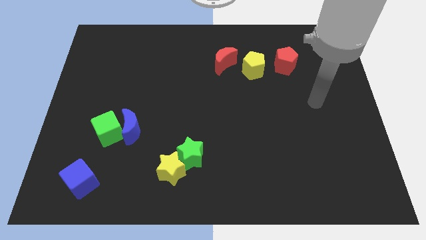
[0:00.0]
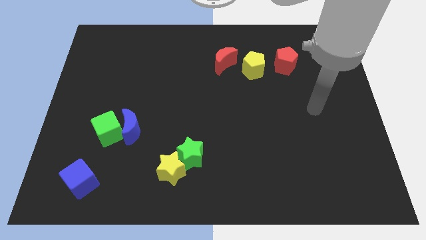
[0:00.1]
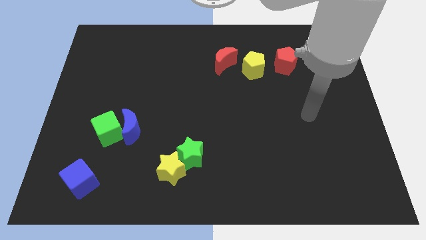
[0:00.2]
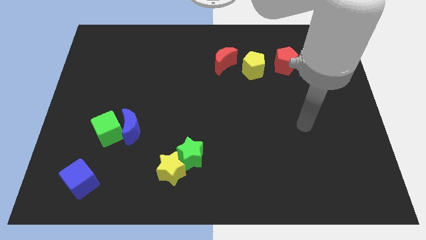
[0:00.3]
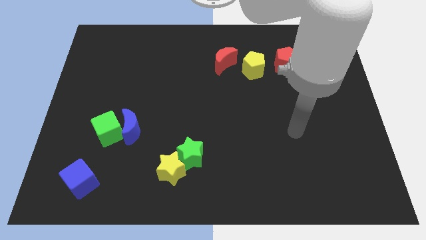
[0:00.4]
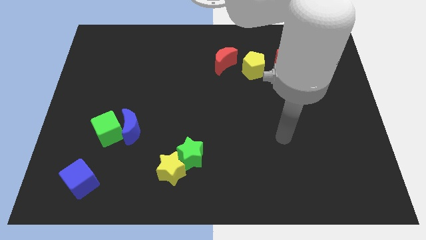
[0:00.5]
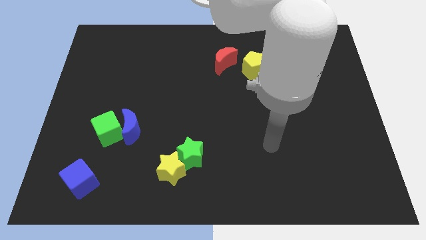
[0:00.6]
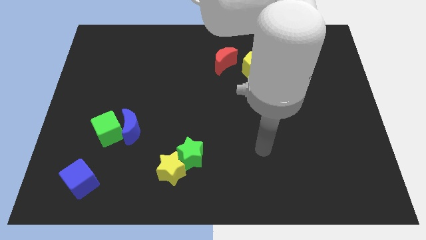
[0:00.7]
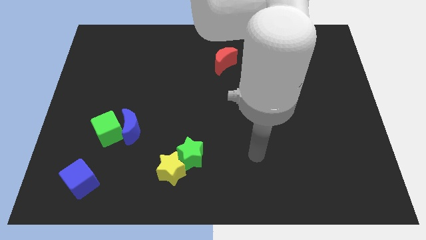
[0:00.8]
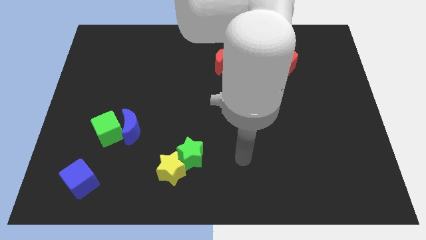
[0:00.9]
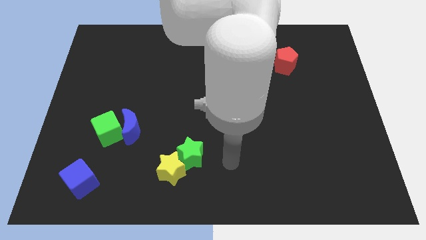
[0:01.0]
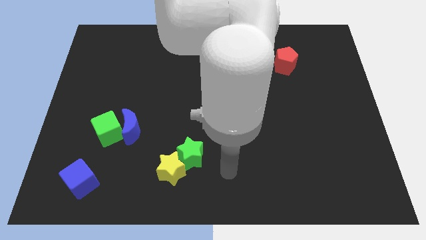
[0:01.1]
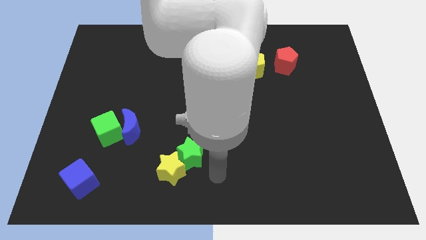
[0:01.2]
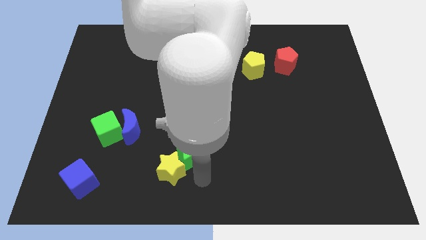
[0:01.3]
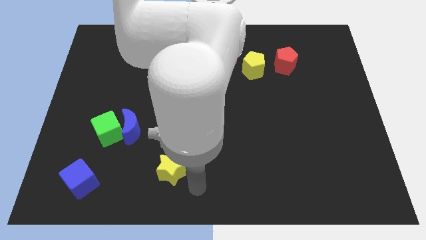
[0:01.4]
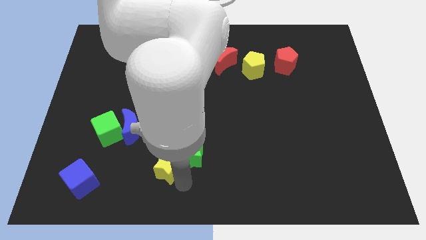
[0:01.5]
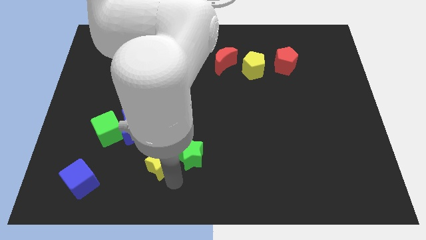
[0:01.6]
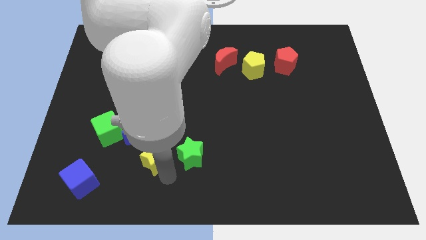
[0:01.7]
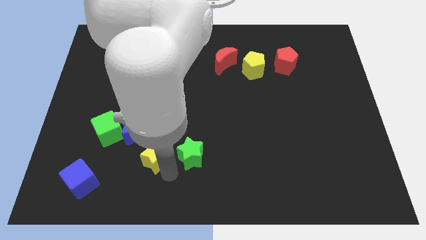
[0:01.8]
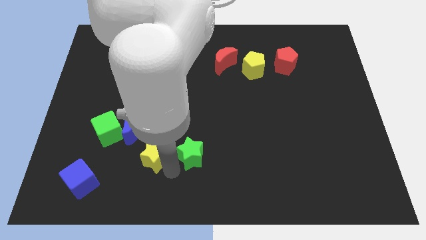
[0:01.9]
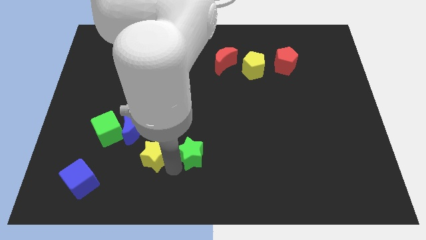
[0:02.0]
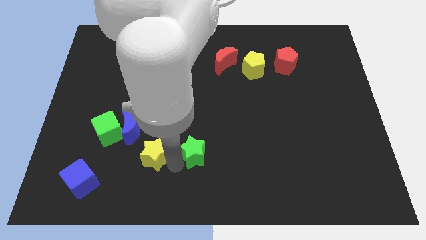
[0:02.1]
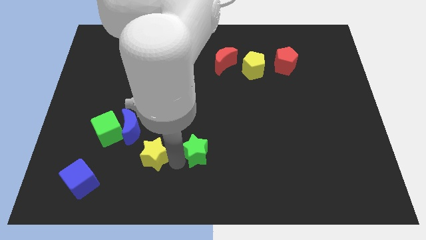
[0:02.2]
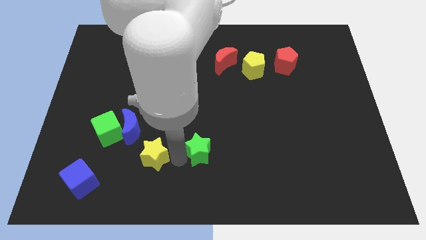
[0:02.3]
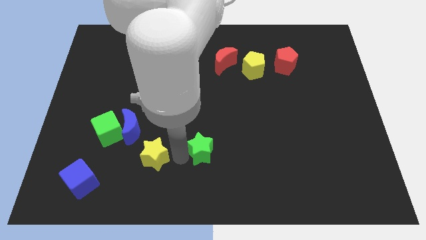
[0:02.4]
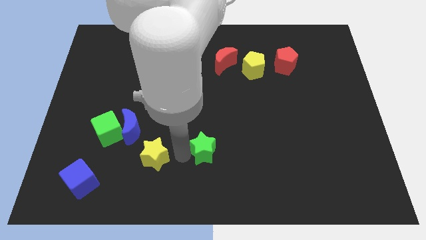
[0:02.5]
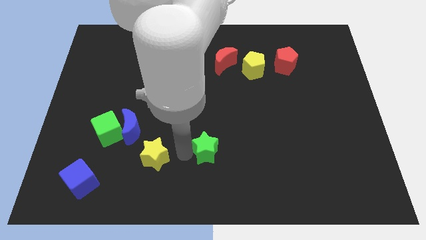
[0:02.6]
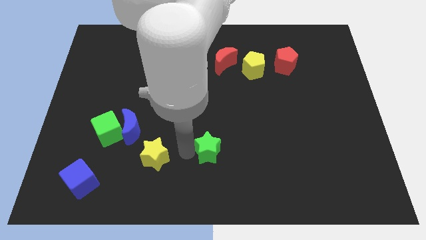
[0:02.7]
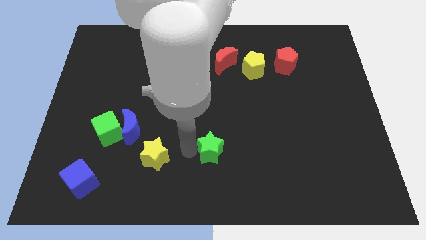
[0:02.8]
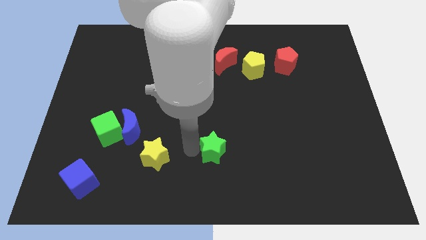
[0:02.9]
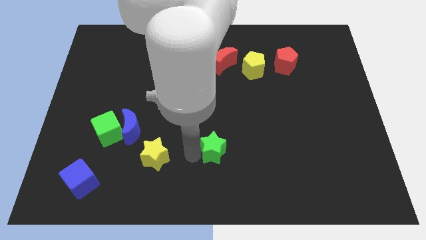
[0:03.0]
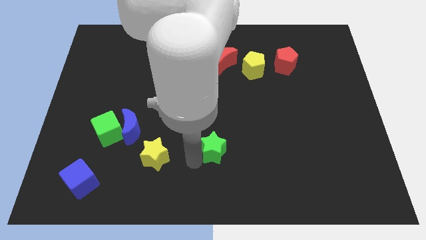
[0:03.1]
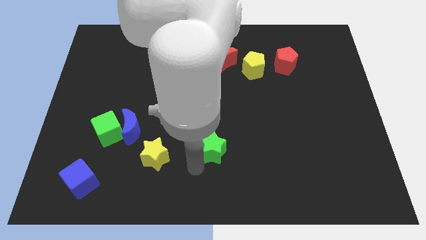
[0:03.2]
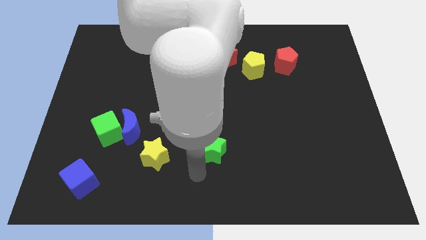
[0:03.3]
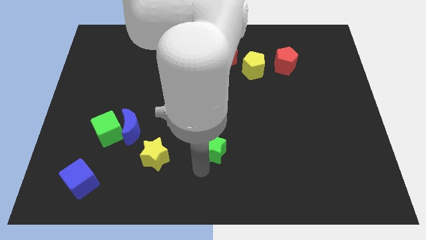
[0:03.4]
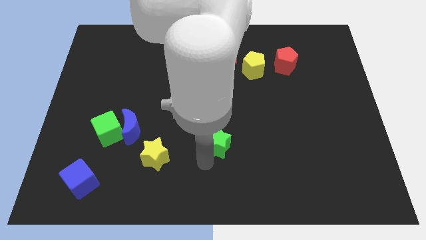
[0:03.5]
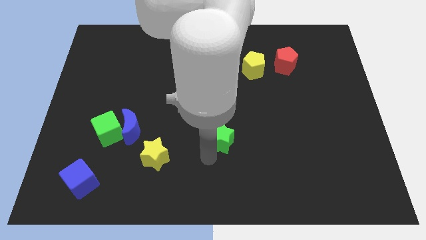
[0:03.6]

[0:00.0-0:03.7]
slightly push the green star diagonally upwards and to the right

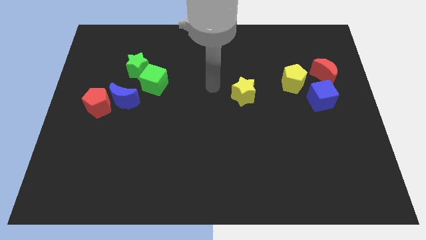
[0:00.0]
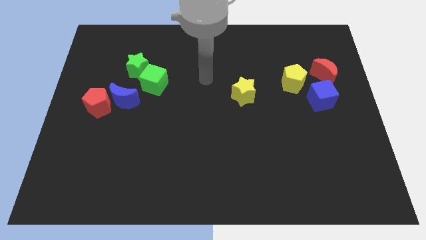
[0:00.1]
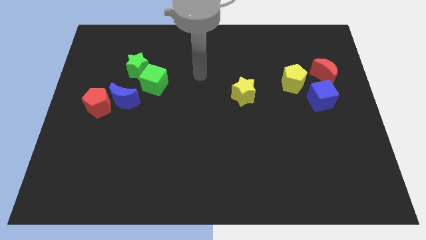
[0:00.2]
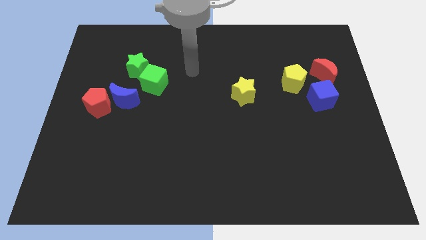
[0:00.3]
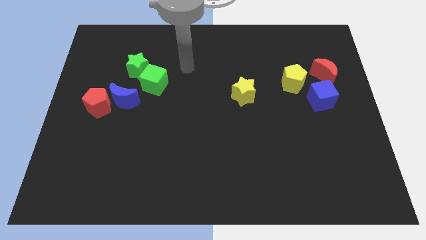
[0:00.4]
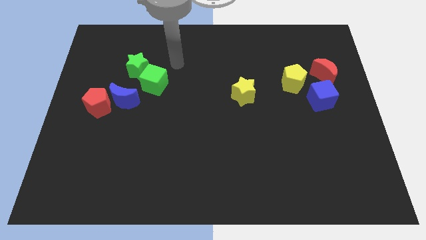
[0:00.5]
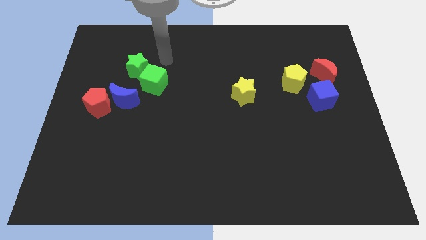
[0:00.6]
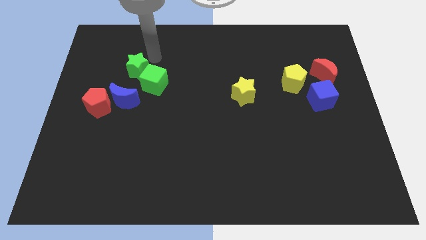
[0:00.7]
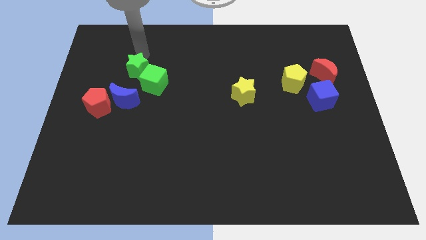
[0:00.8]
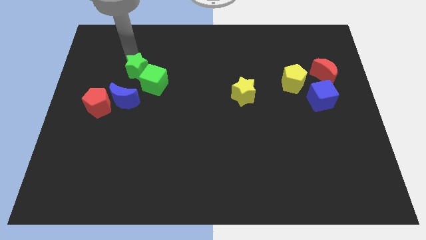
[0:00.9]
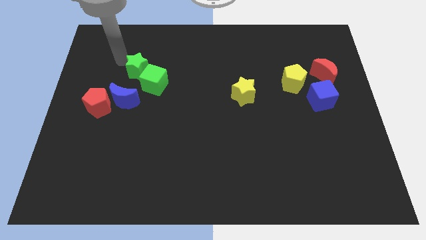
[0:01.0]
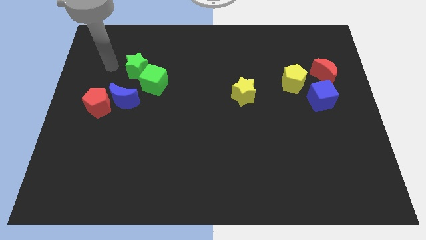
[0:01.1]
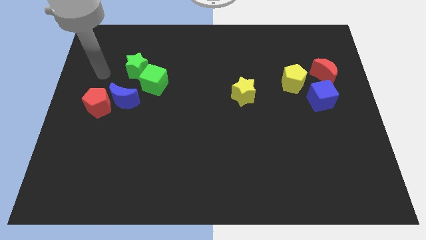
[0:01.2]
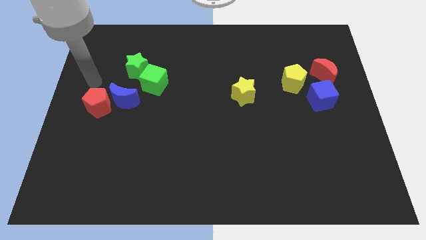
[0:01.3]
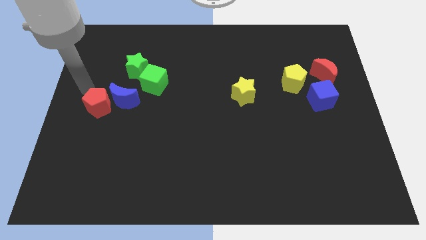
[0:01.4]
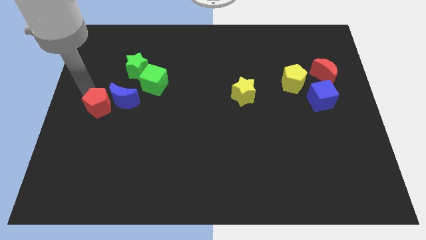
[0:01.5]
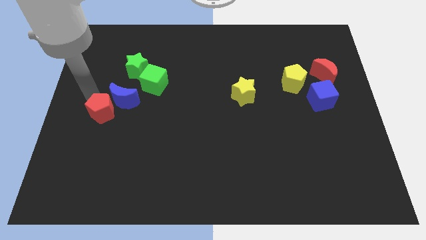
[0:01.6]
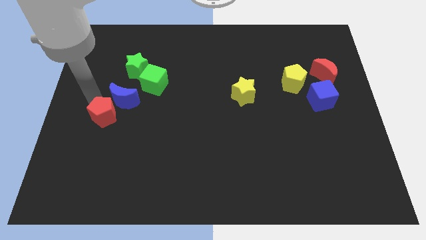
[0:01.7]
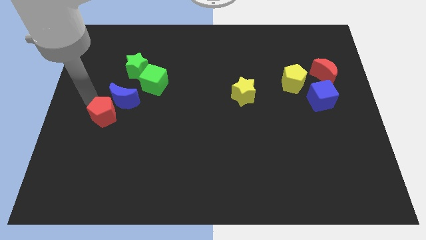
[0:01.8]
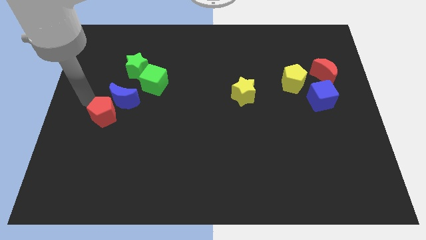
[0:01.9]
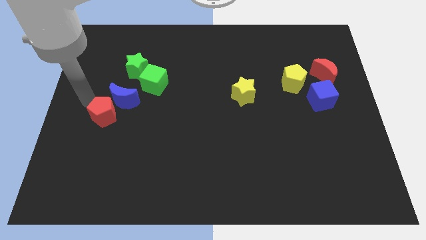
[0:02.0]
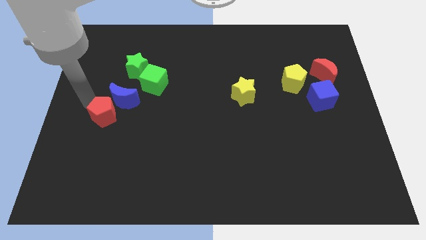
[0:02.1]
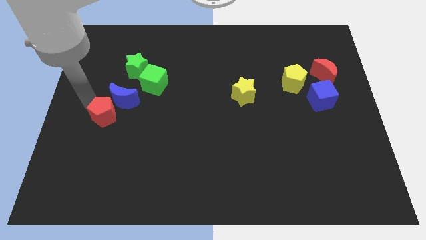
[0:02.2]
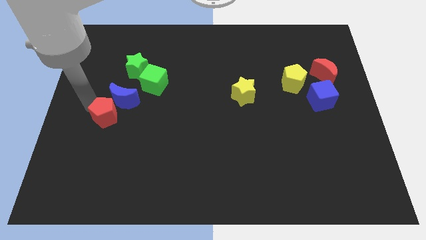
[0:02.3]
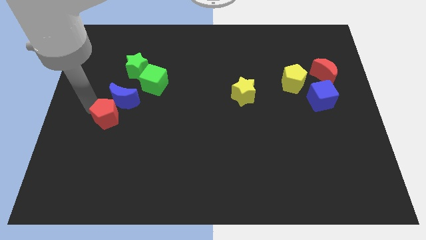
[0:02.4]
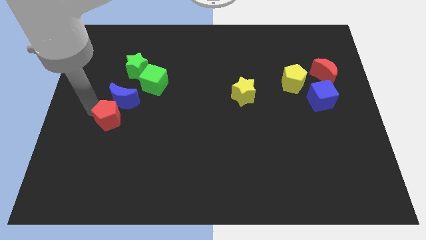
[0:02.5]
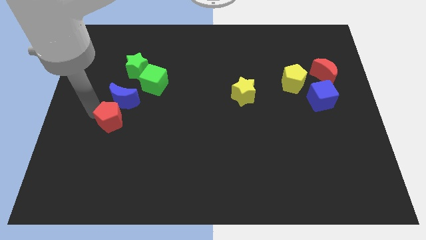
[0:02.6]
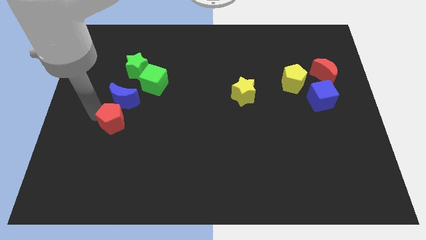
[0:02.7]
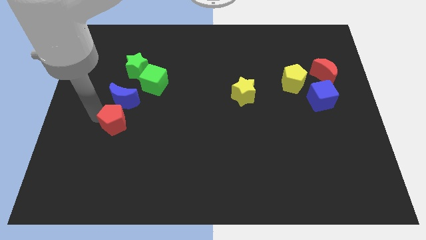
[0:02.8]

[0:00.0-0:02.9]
slide the red pentagon a bit downwards and to the right

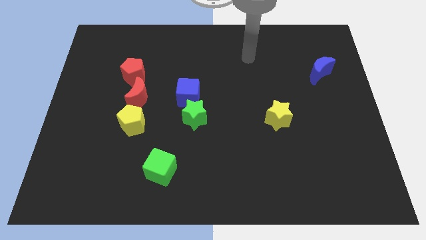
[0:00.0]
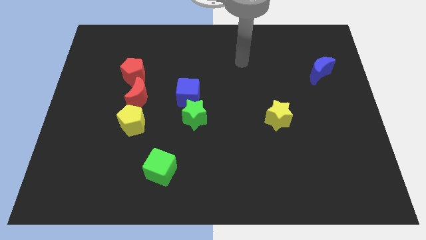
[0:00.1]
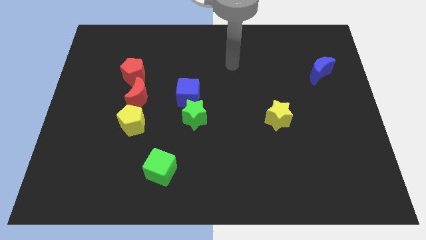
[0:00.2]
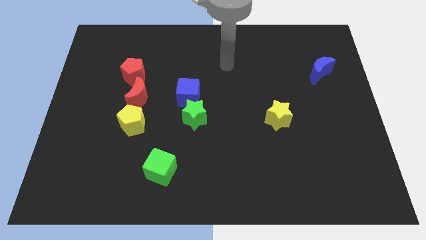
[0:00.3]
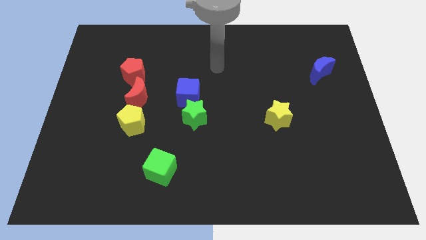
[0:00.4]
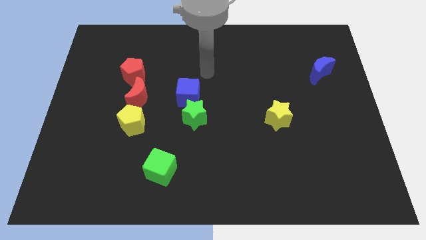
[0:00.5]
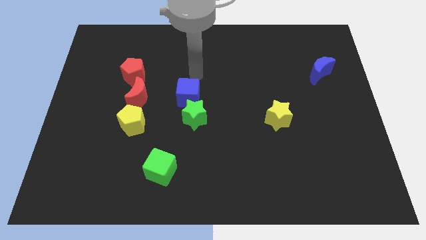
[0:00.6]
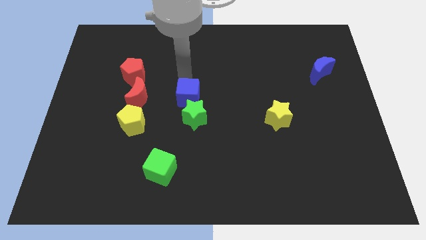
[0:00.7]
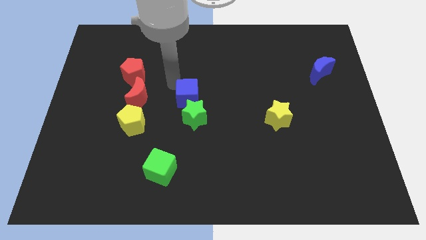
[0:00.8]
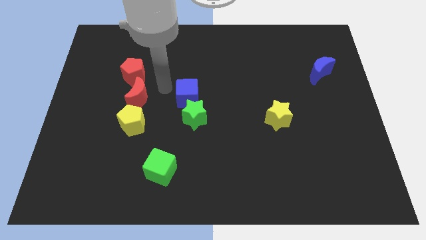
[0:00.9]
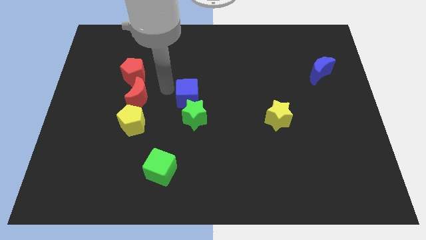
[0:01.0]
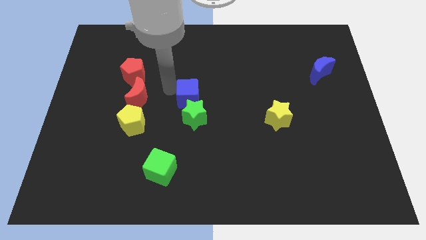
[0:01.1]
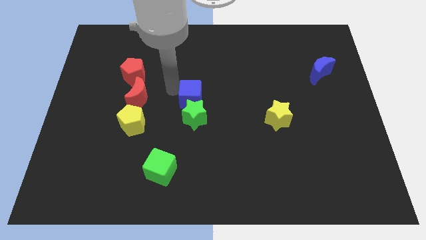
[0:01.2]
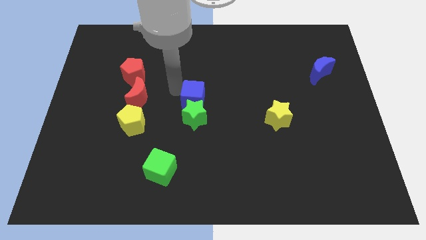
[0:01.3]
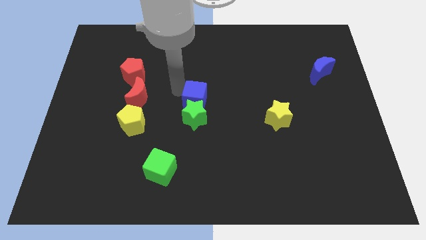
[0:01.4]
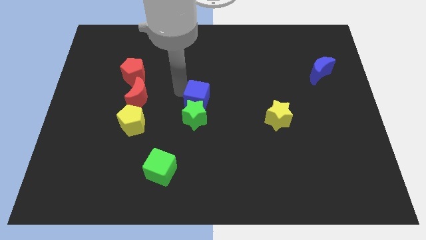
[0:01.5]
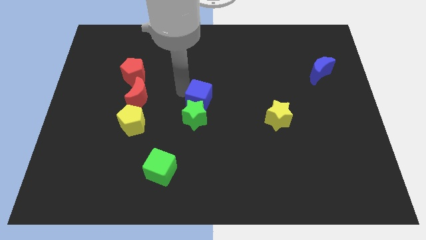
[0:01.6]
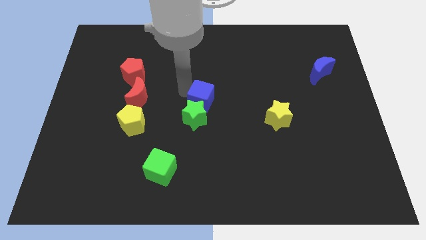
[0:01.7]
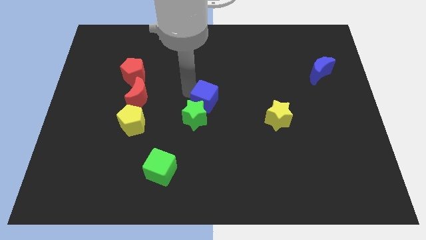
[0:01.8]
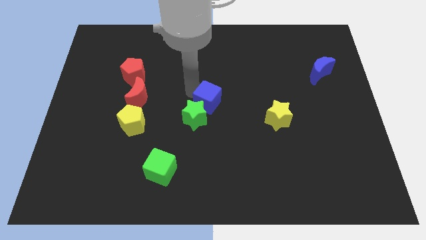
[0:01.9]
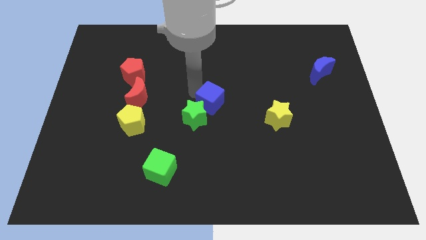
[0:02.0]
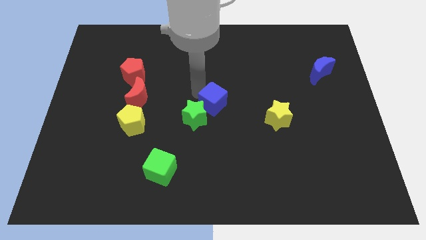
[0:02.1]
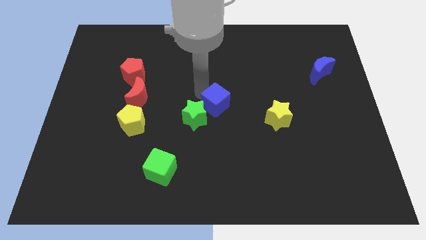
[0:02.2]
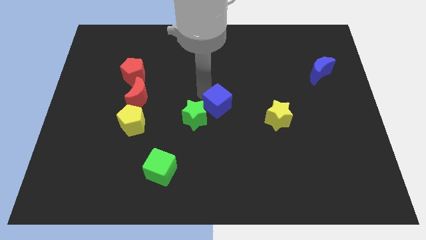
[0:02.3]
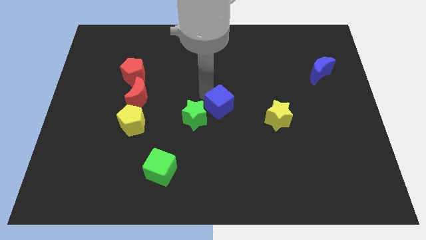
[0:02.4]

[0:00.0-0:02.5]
slide the blue cube downwards and to the right slightly
